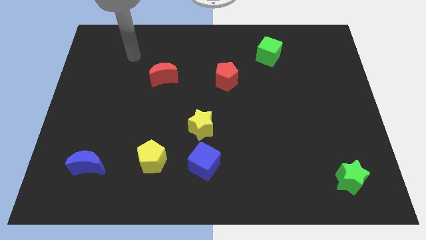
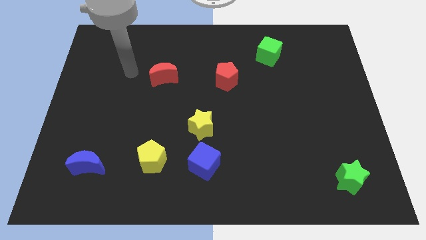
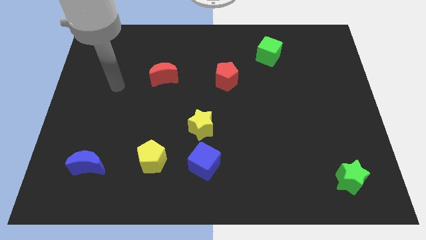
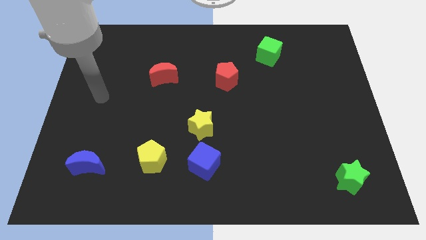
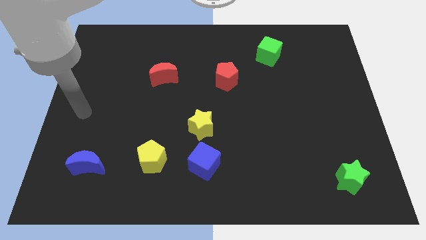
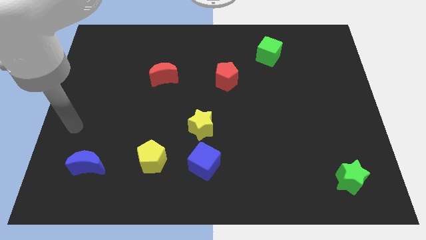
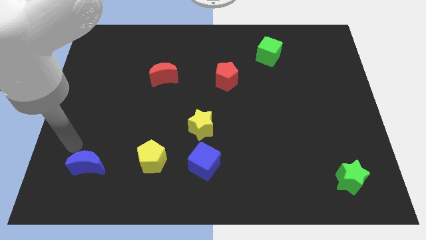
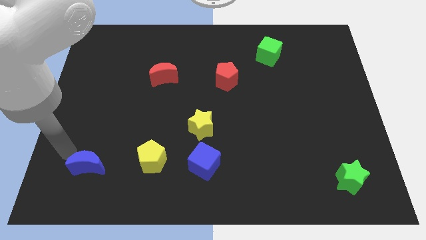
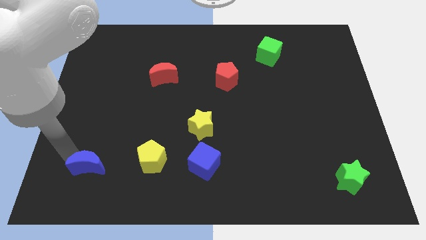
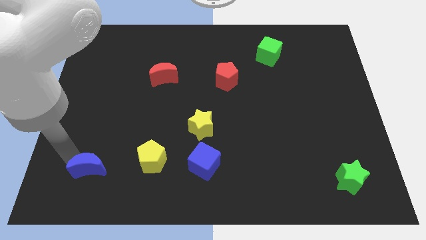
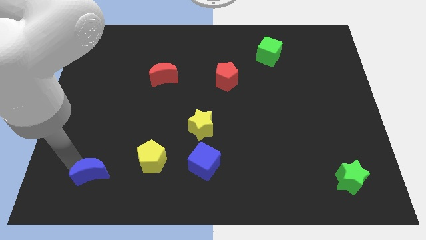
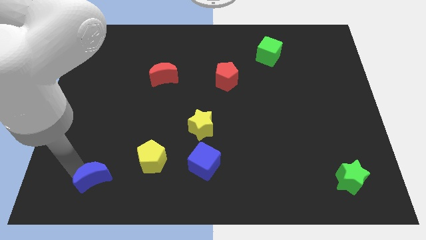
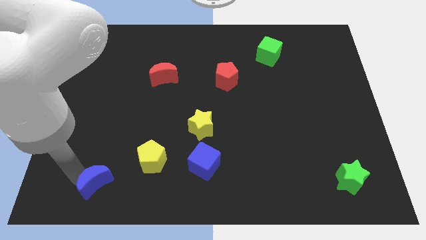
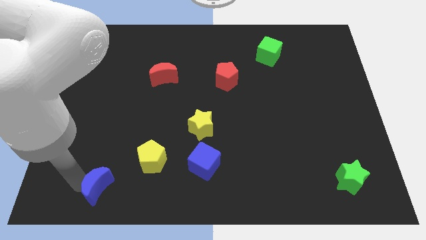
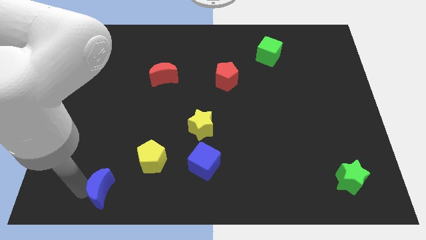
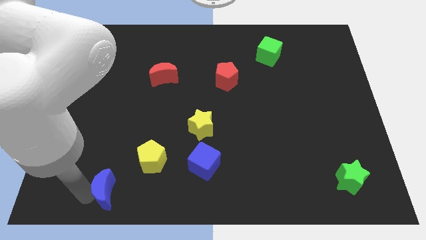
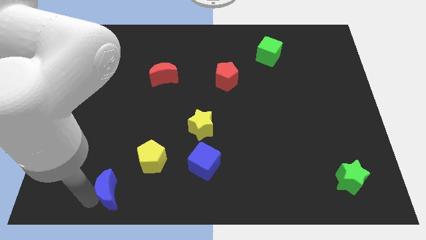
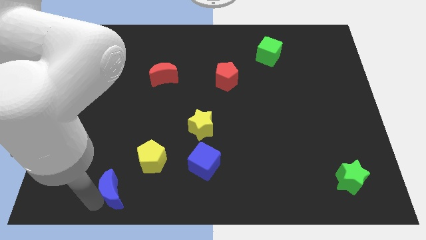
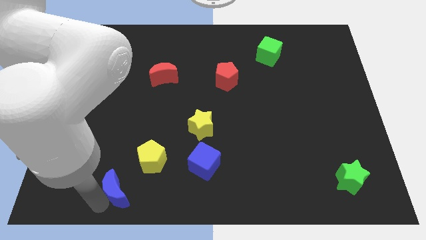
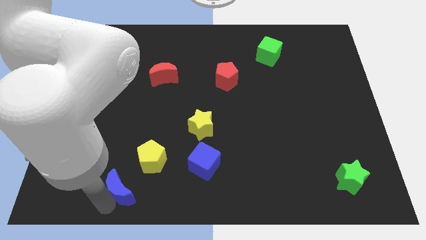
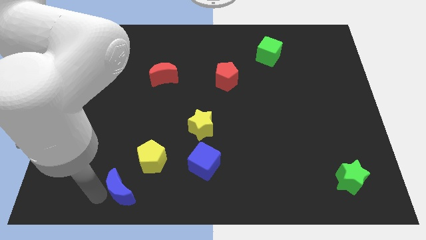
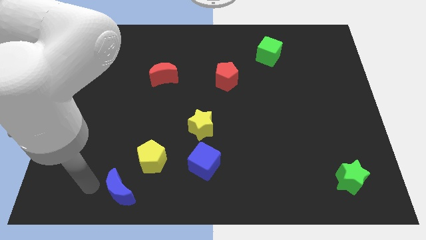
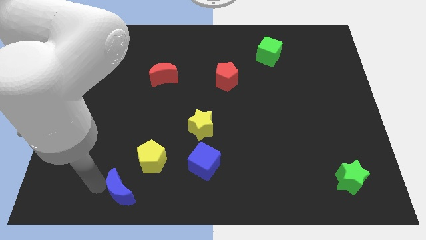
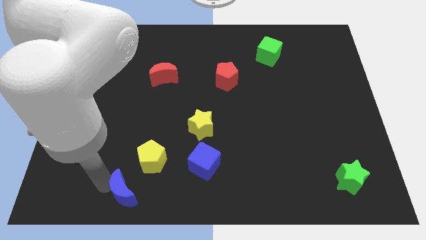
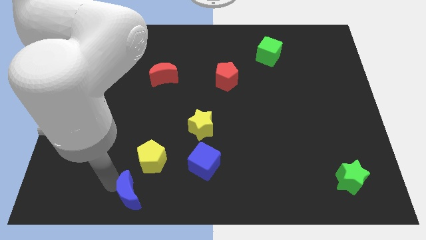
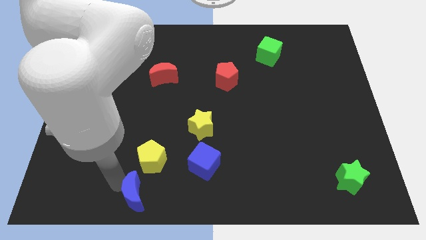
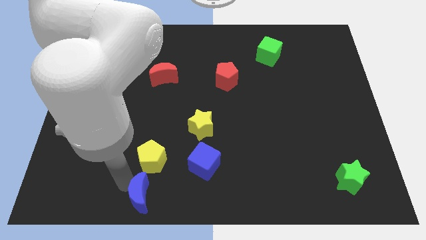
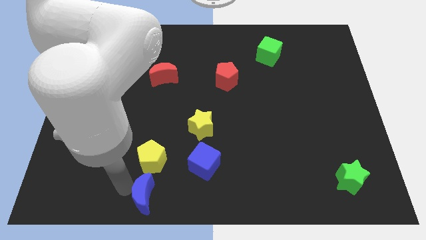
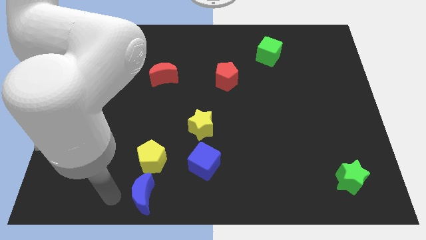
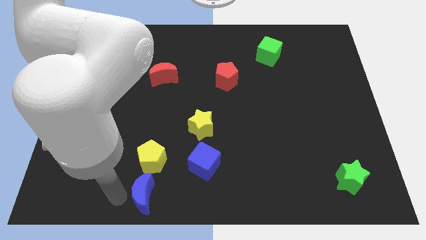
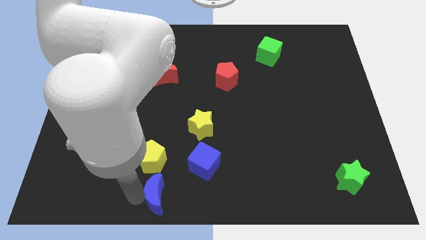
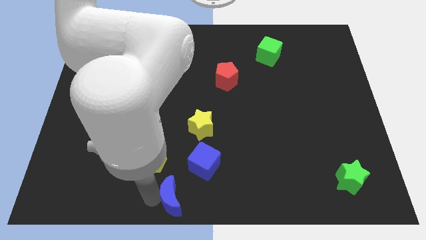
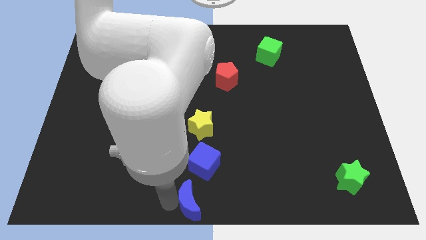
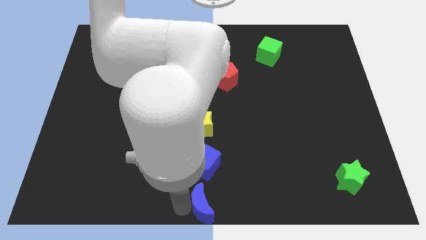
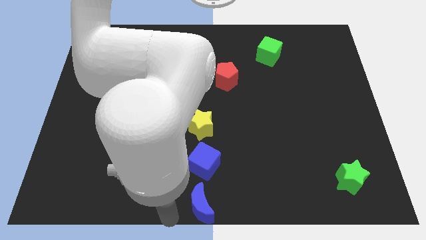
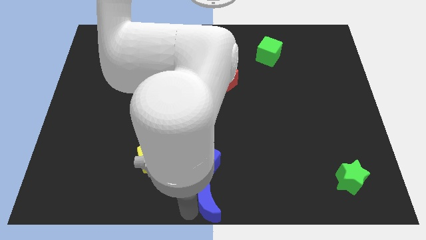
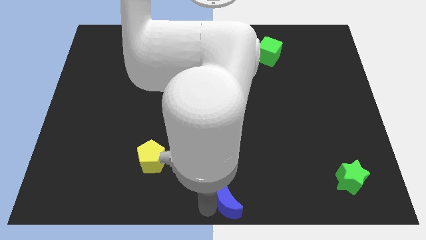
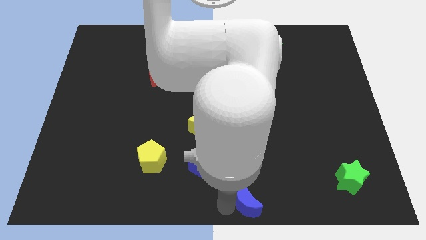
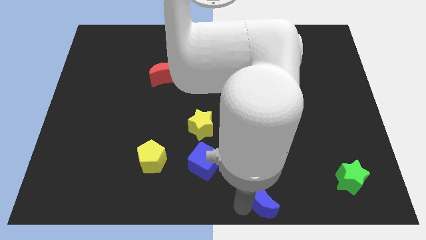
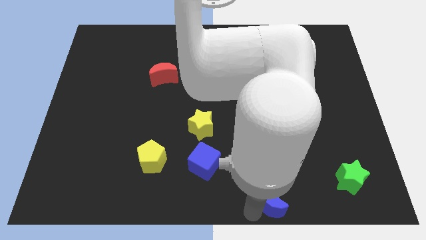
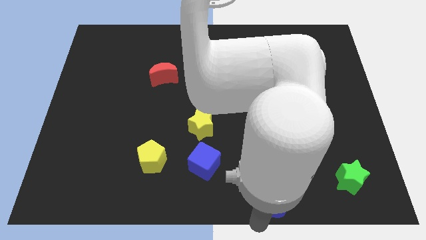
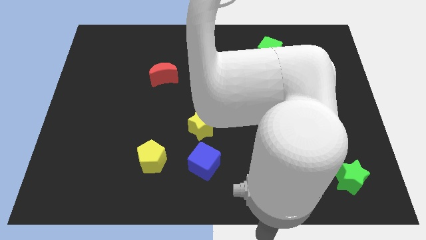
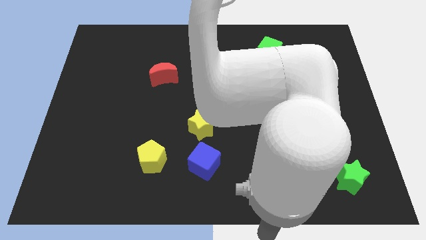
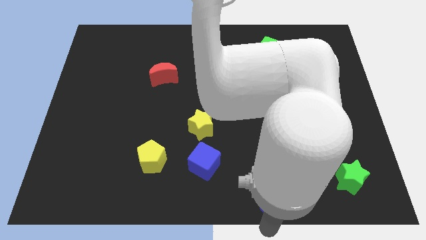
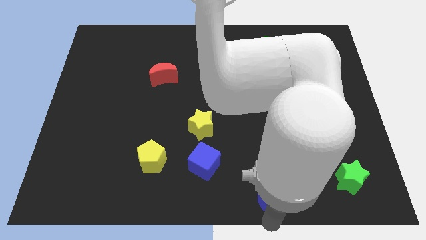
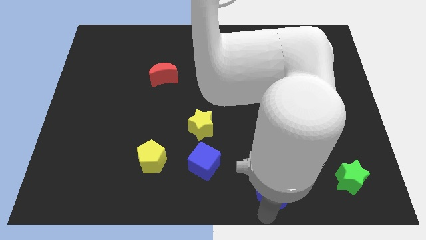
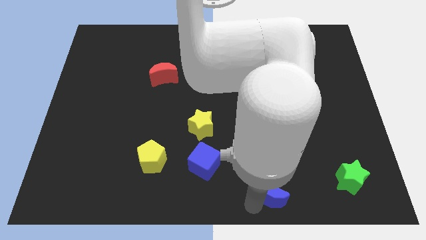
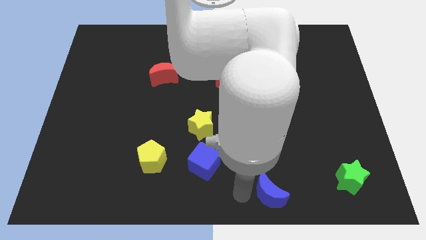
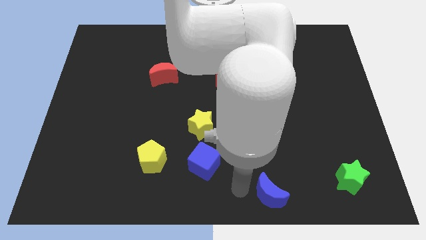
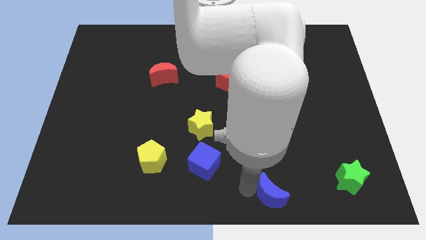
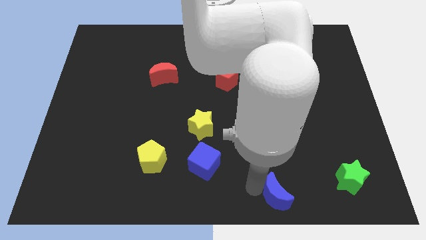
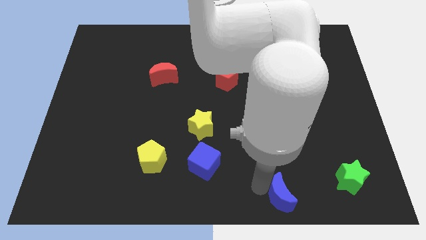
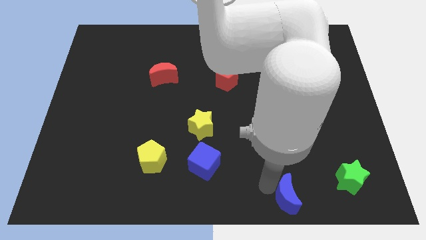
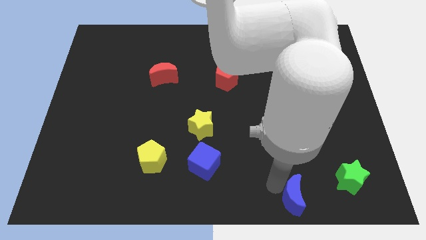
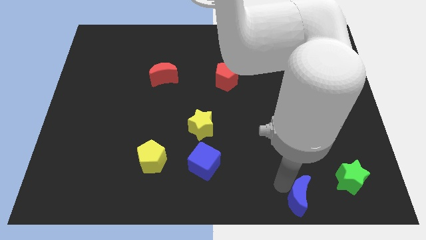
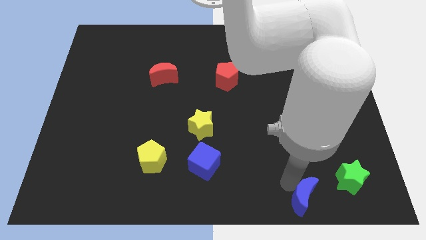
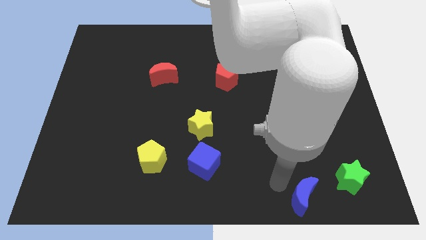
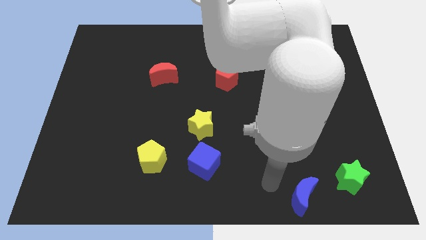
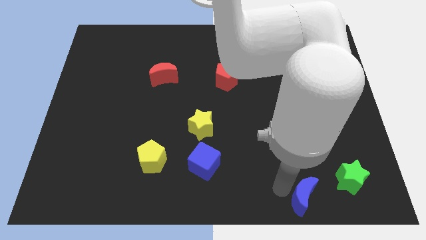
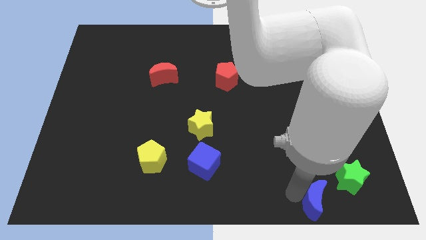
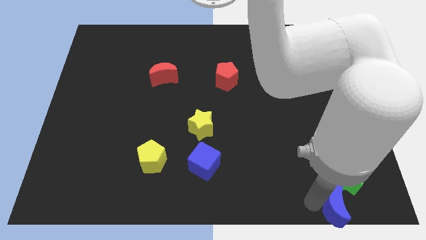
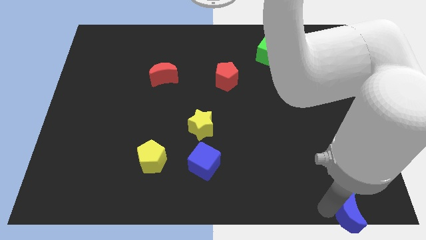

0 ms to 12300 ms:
move the blue moon to the bottom right
